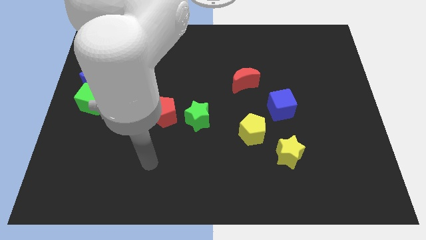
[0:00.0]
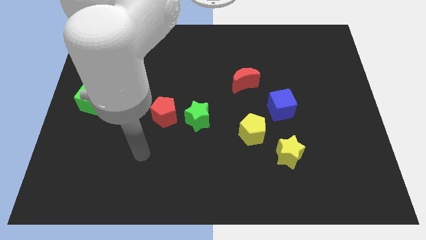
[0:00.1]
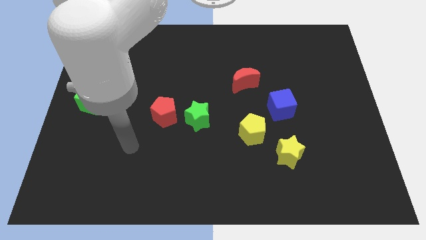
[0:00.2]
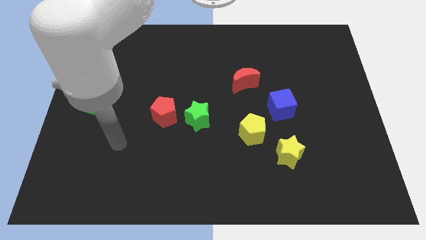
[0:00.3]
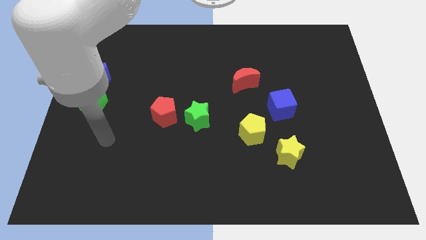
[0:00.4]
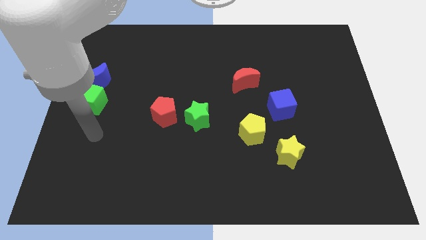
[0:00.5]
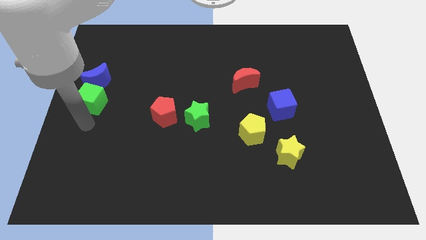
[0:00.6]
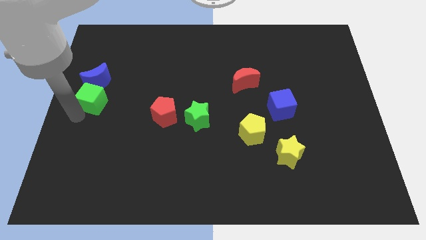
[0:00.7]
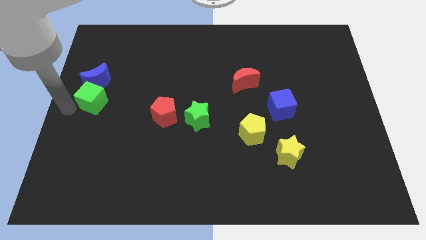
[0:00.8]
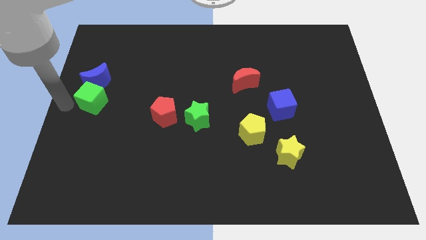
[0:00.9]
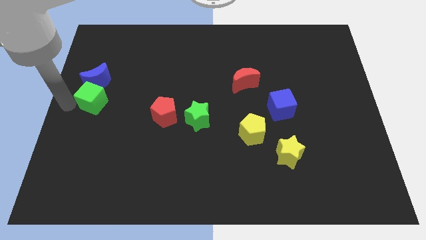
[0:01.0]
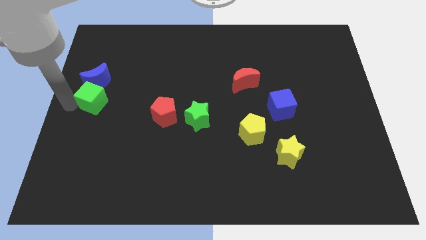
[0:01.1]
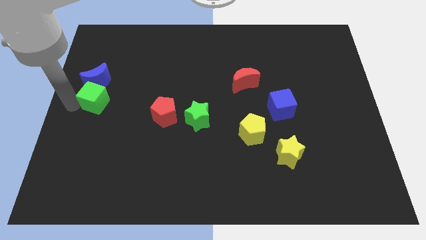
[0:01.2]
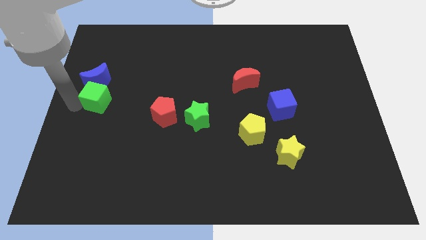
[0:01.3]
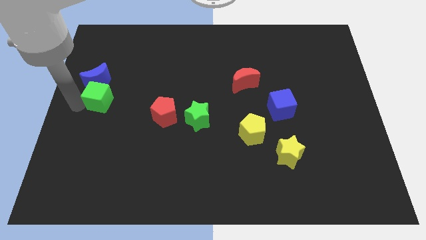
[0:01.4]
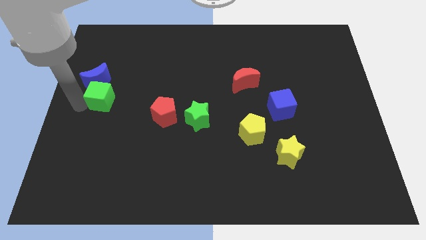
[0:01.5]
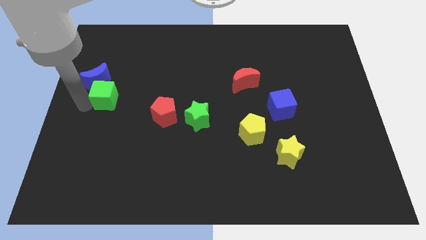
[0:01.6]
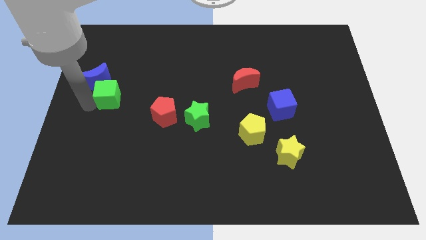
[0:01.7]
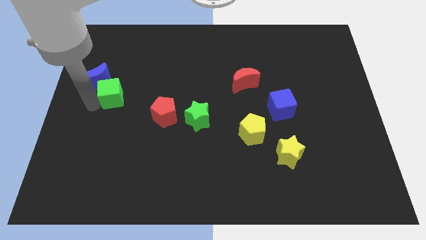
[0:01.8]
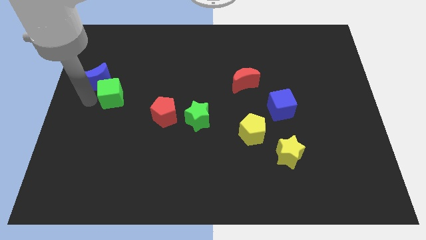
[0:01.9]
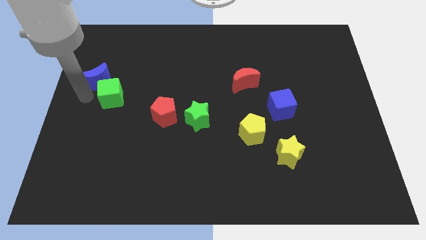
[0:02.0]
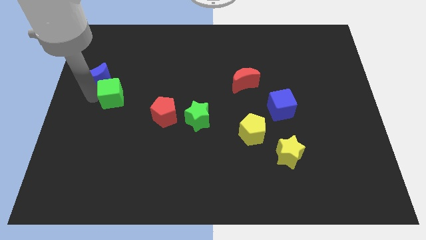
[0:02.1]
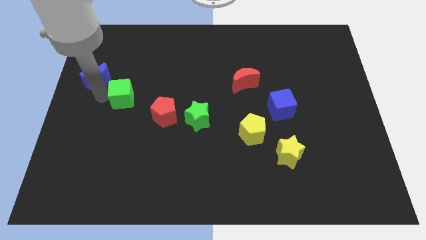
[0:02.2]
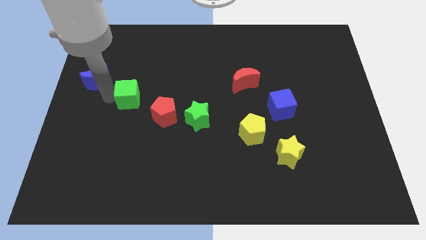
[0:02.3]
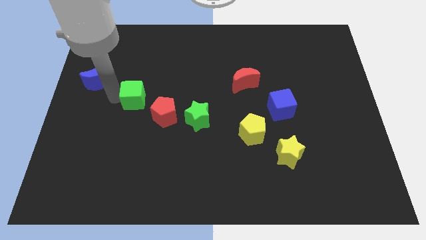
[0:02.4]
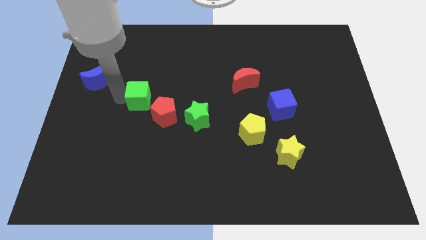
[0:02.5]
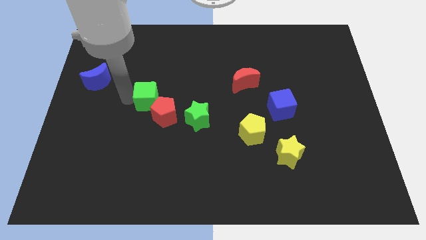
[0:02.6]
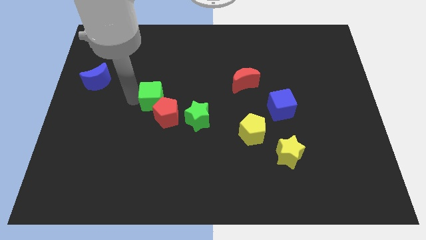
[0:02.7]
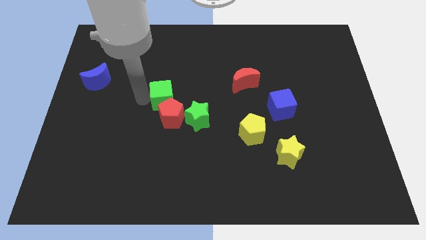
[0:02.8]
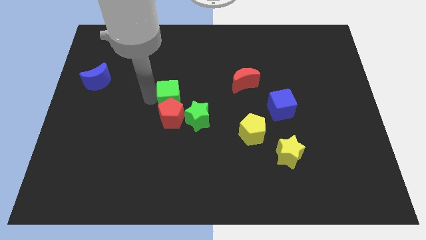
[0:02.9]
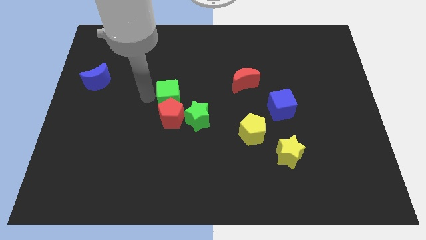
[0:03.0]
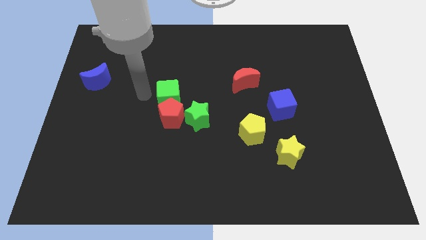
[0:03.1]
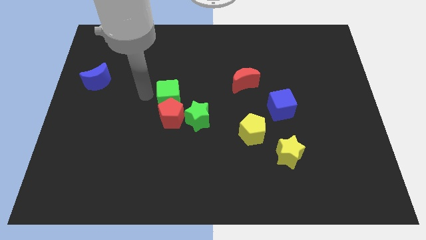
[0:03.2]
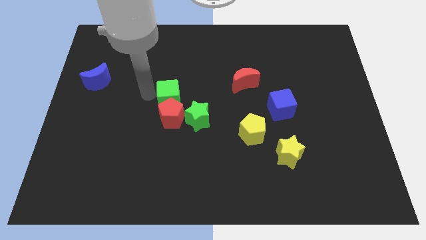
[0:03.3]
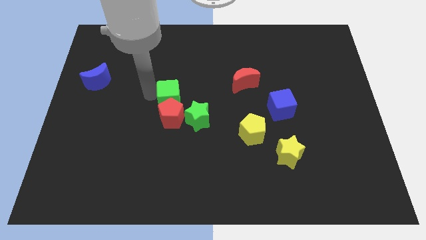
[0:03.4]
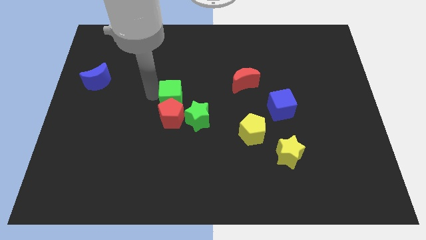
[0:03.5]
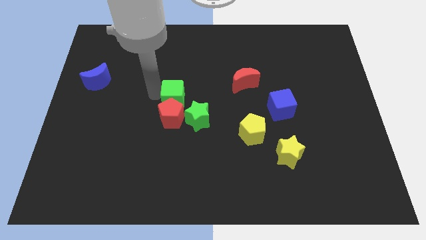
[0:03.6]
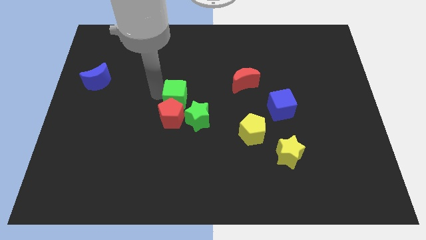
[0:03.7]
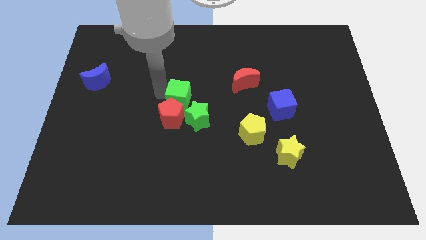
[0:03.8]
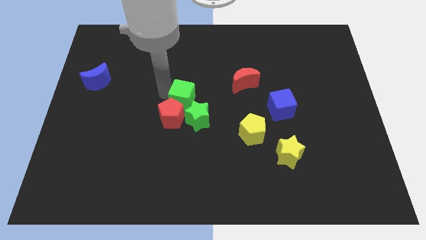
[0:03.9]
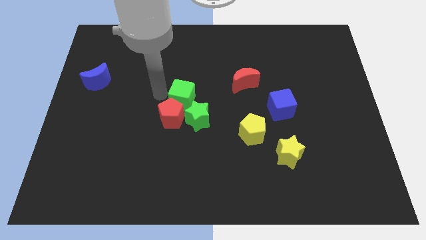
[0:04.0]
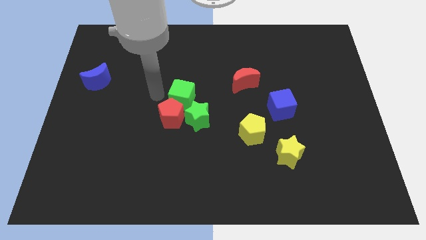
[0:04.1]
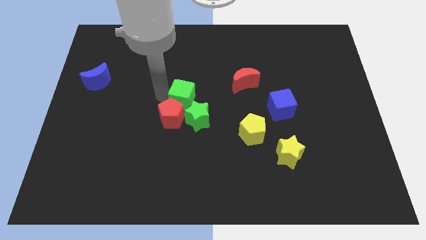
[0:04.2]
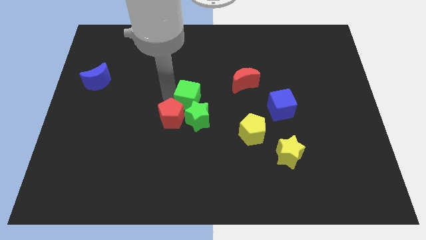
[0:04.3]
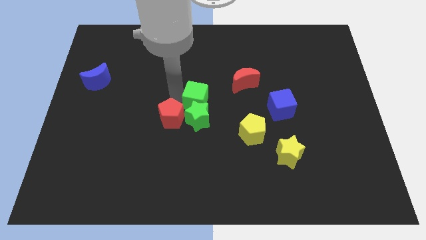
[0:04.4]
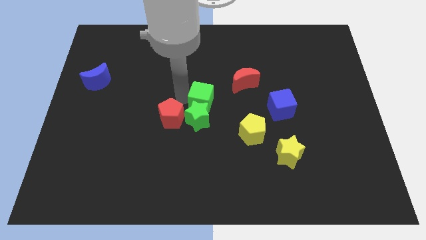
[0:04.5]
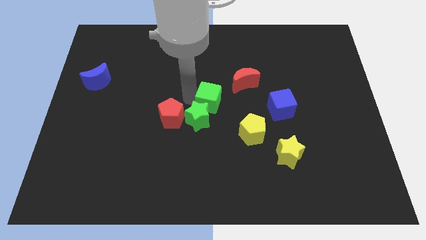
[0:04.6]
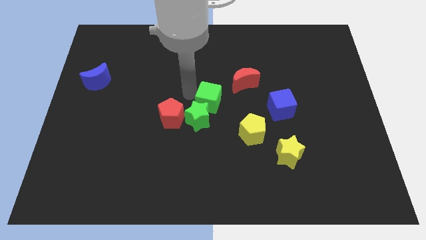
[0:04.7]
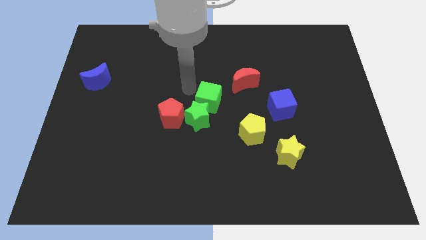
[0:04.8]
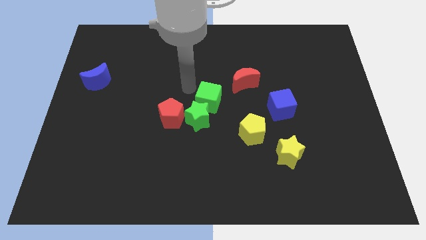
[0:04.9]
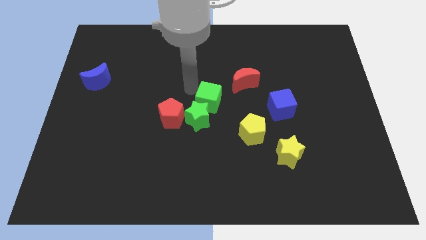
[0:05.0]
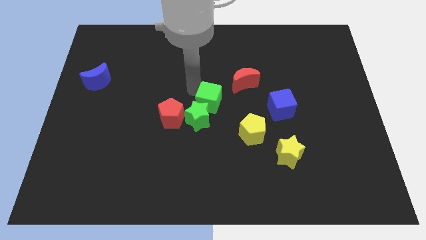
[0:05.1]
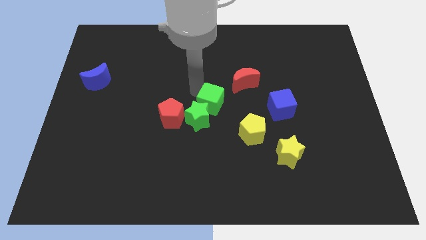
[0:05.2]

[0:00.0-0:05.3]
move the green cube diagonally up and to the left of the yellow pentagon

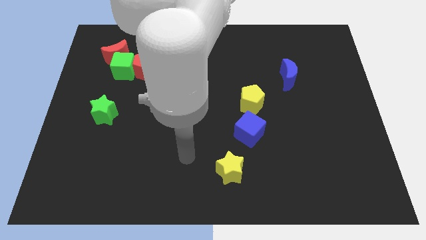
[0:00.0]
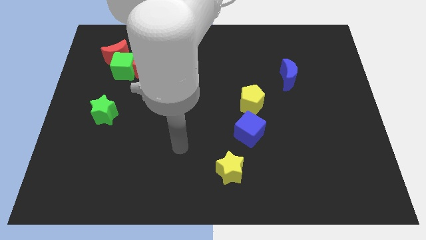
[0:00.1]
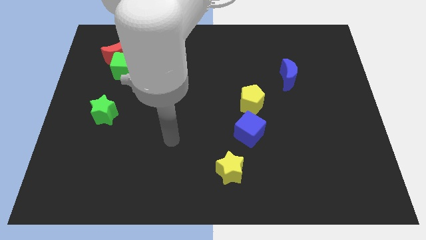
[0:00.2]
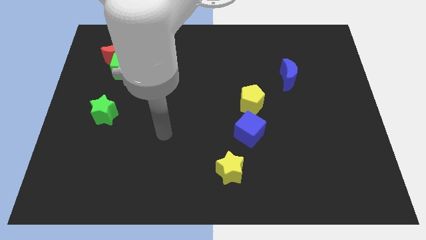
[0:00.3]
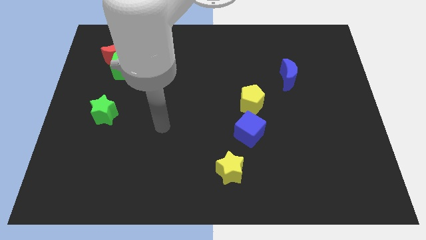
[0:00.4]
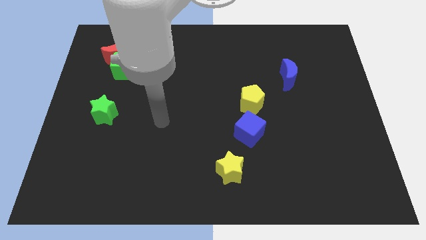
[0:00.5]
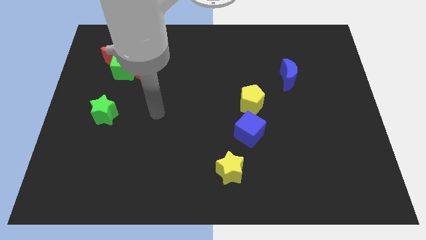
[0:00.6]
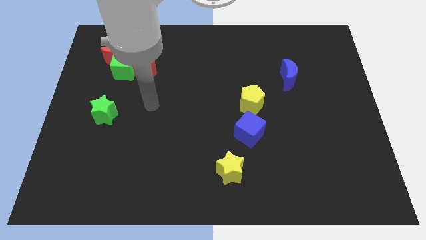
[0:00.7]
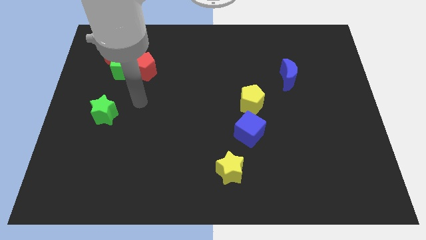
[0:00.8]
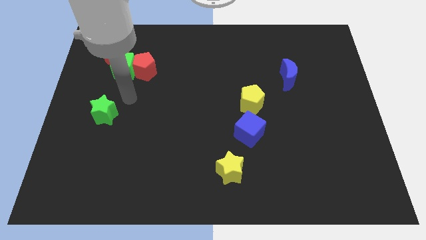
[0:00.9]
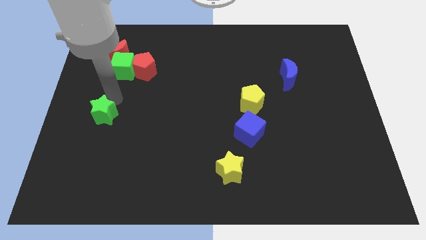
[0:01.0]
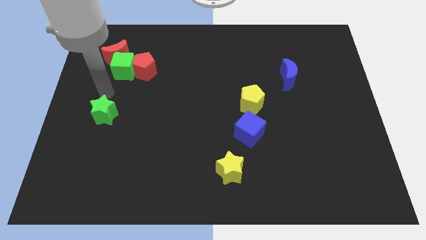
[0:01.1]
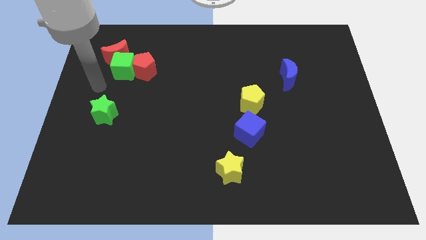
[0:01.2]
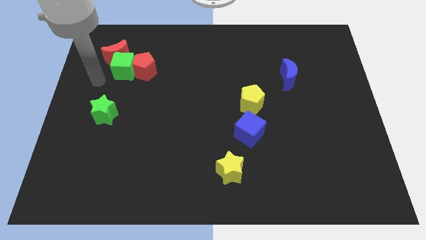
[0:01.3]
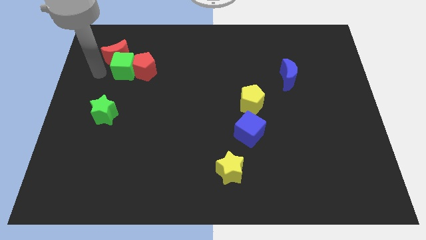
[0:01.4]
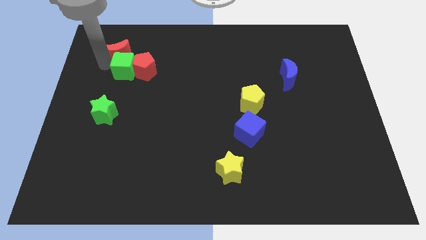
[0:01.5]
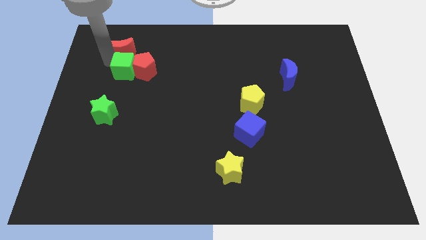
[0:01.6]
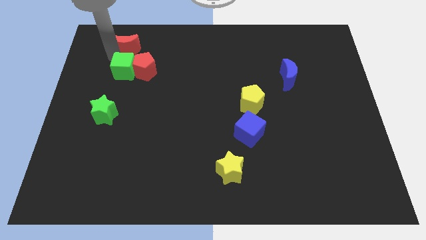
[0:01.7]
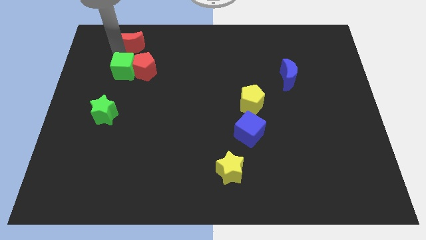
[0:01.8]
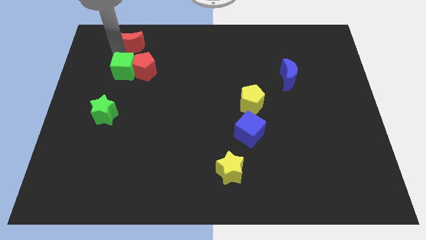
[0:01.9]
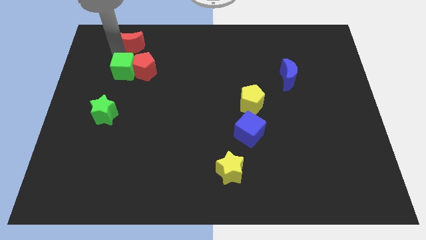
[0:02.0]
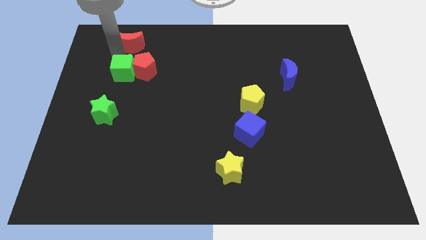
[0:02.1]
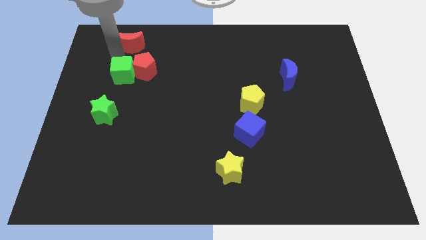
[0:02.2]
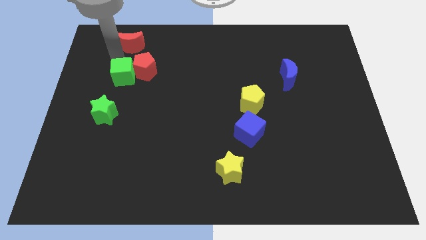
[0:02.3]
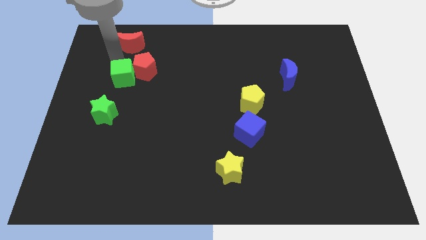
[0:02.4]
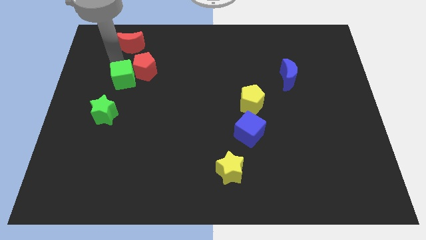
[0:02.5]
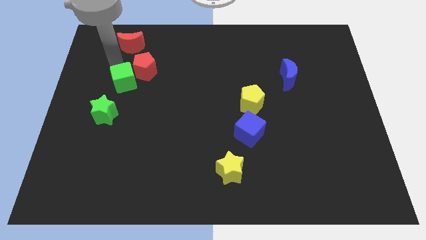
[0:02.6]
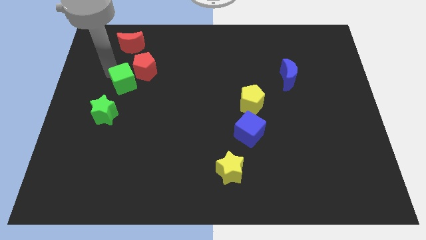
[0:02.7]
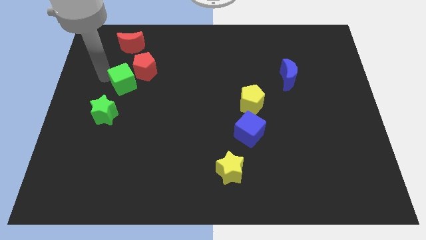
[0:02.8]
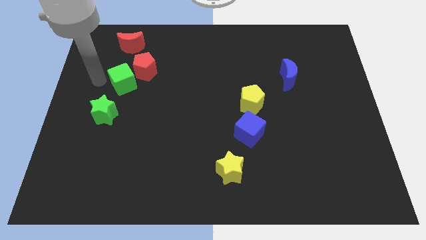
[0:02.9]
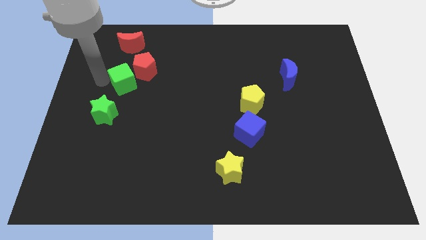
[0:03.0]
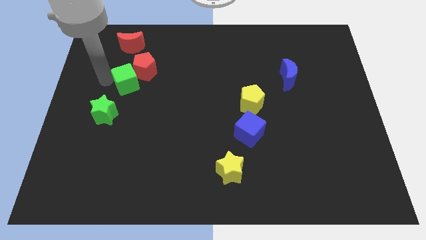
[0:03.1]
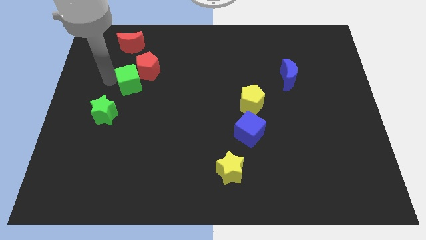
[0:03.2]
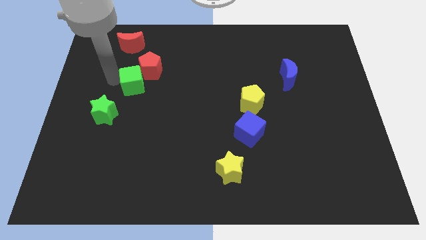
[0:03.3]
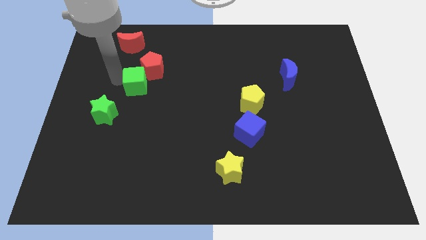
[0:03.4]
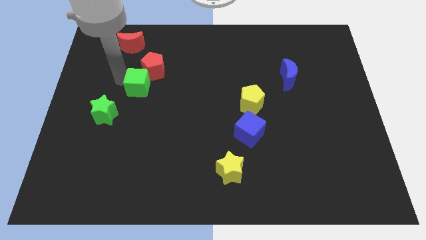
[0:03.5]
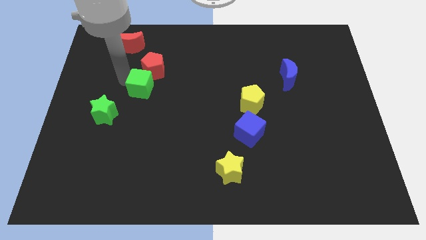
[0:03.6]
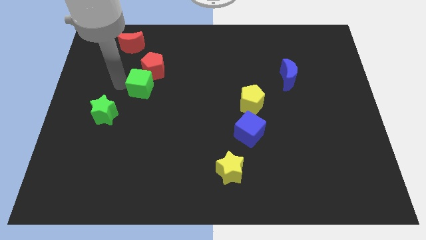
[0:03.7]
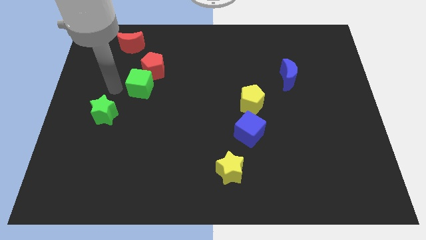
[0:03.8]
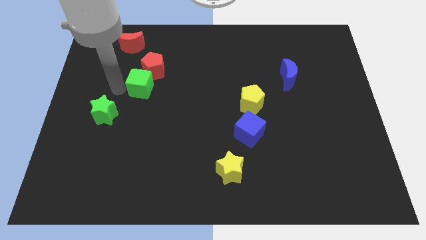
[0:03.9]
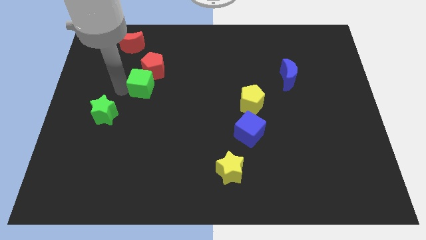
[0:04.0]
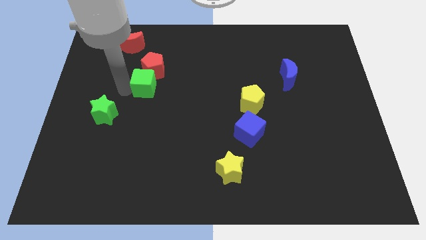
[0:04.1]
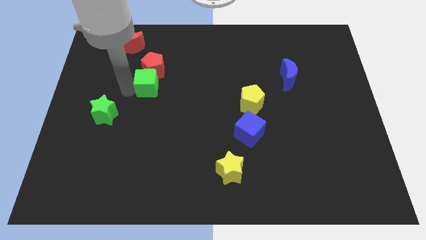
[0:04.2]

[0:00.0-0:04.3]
put the green cube diagonally down and to the right of the red pentagon
